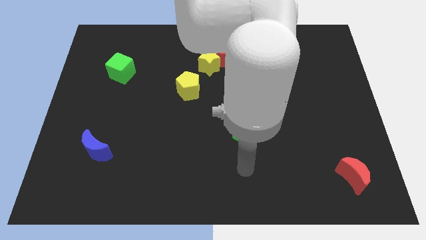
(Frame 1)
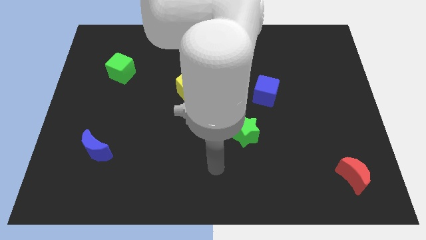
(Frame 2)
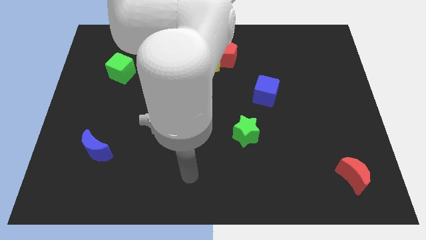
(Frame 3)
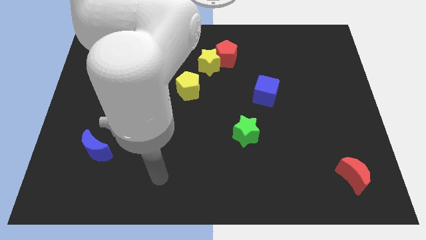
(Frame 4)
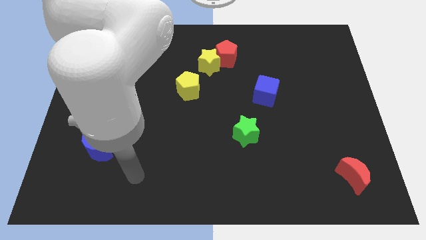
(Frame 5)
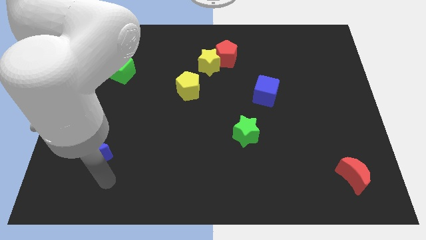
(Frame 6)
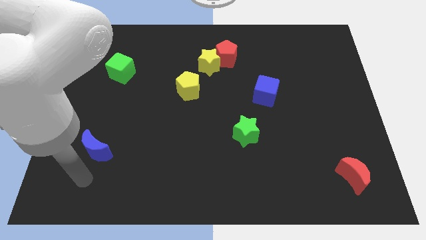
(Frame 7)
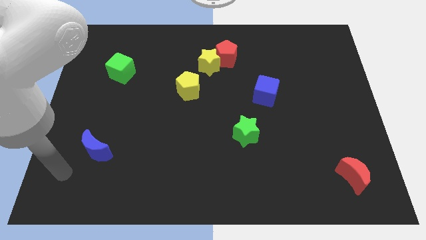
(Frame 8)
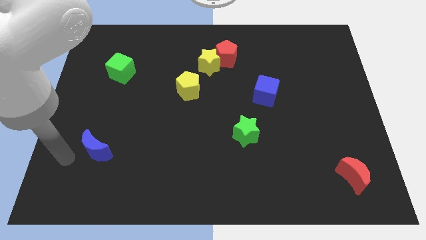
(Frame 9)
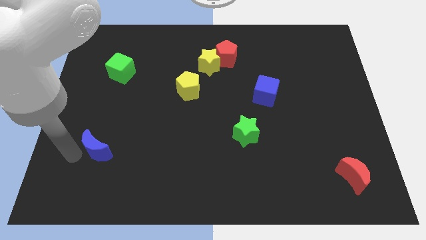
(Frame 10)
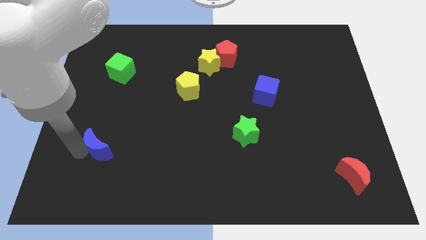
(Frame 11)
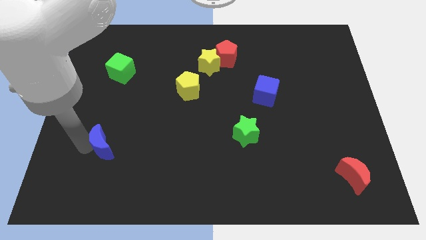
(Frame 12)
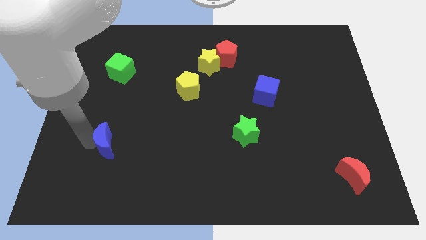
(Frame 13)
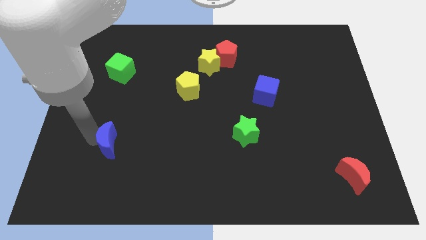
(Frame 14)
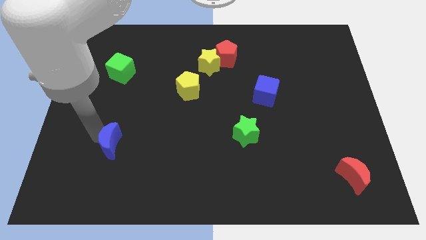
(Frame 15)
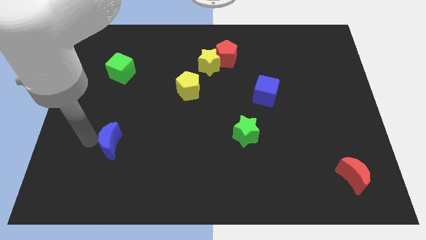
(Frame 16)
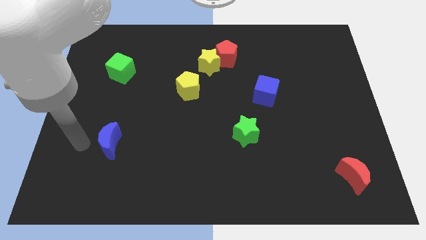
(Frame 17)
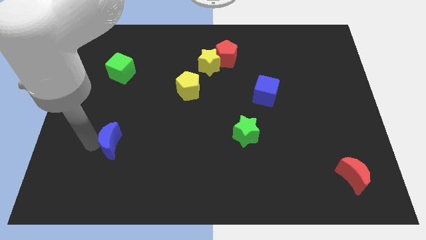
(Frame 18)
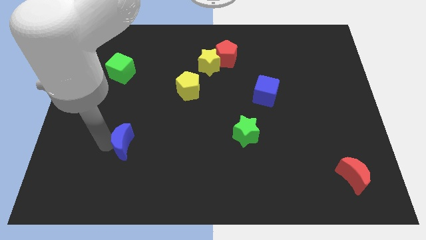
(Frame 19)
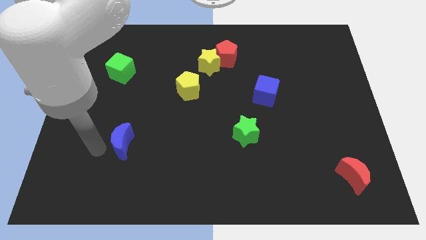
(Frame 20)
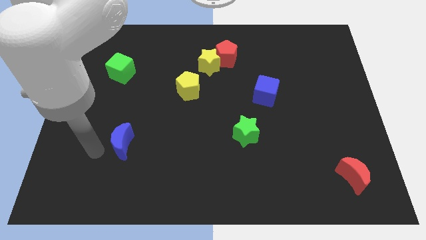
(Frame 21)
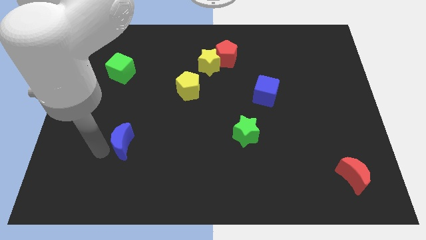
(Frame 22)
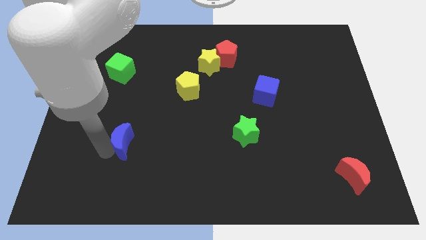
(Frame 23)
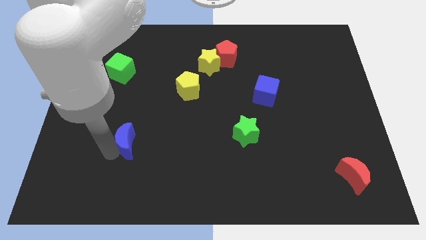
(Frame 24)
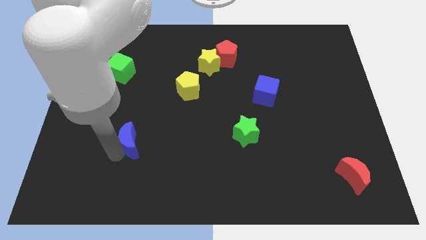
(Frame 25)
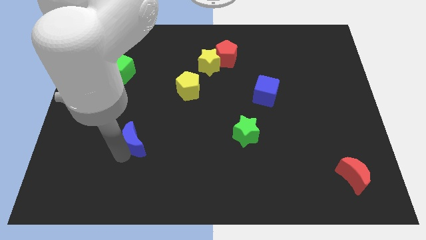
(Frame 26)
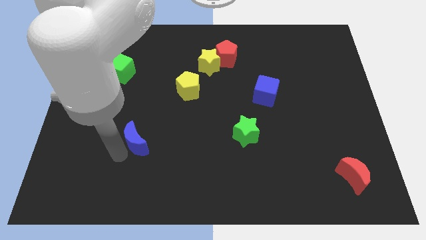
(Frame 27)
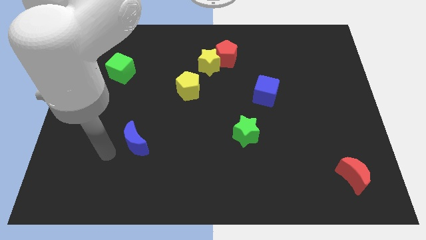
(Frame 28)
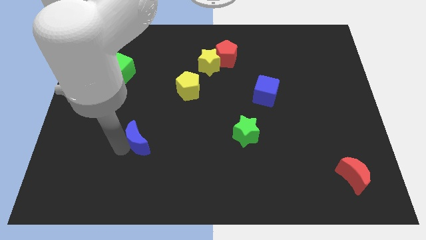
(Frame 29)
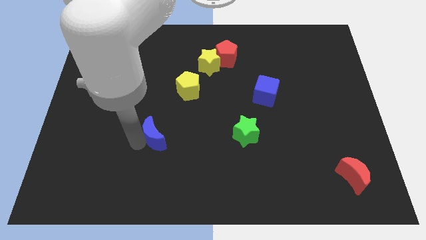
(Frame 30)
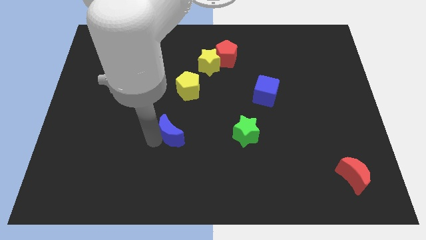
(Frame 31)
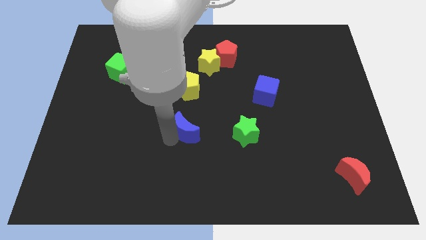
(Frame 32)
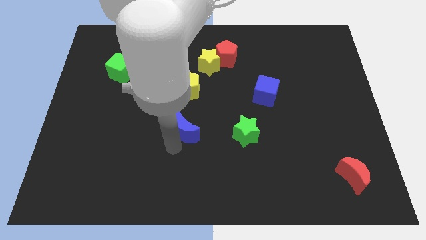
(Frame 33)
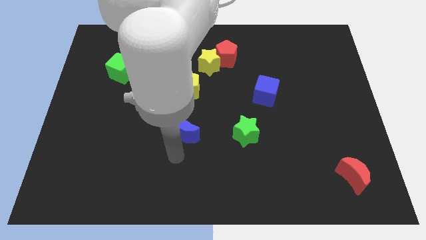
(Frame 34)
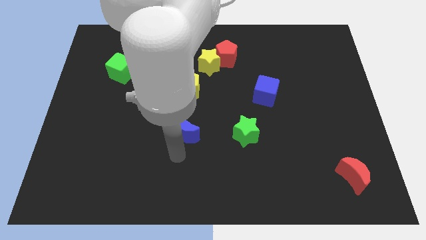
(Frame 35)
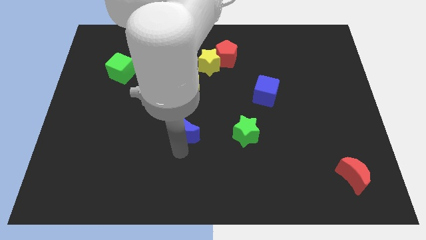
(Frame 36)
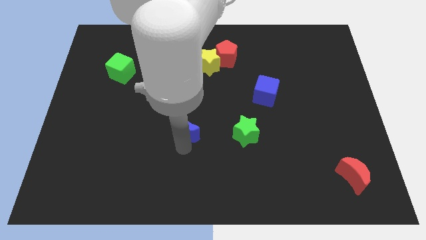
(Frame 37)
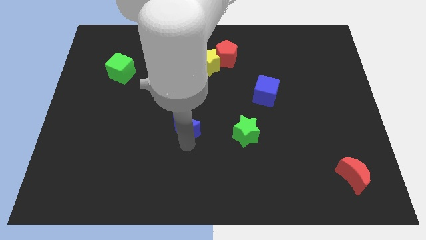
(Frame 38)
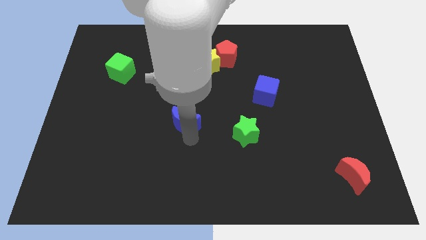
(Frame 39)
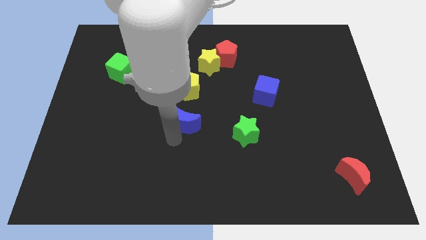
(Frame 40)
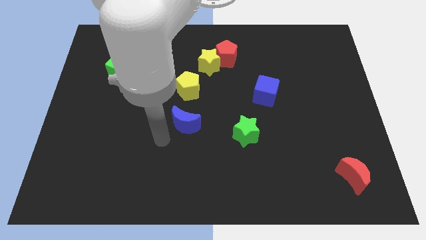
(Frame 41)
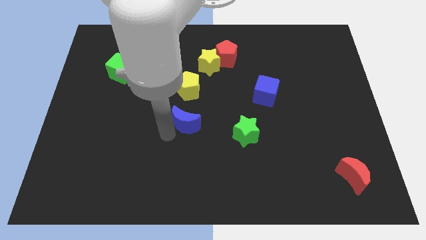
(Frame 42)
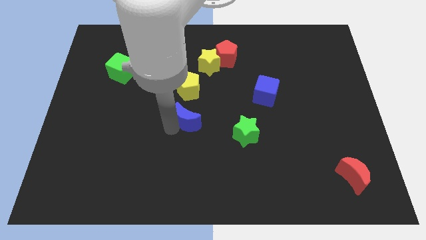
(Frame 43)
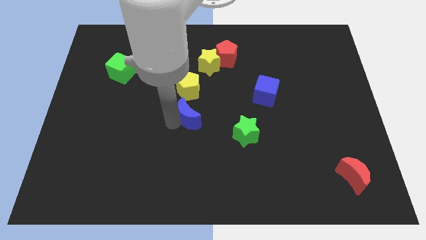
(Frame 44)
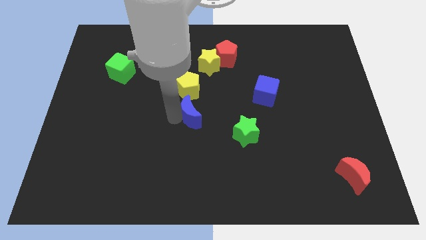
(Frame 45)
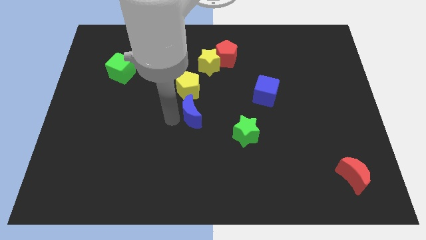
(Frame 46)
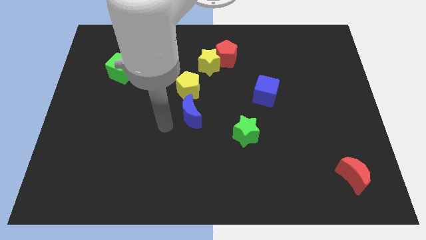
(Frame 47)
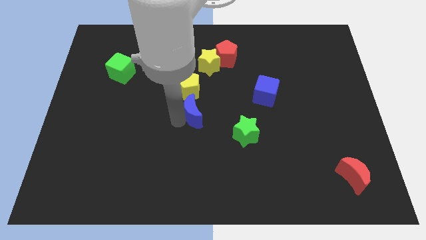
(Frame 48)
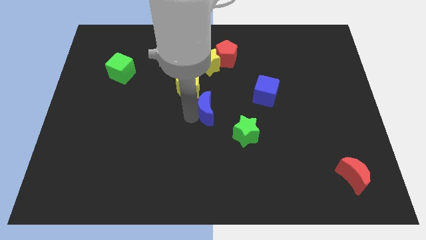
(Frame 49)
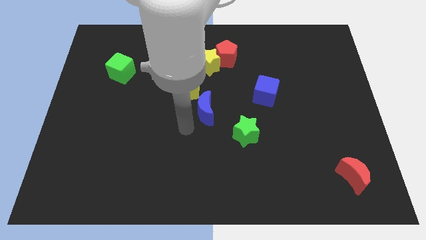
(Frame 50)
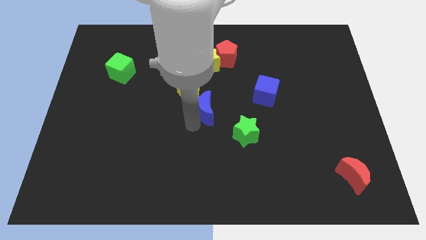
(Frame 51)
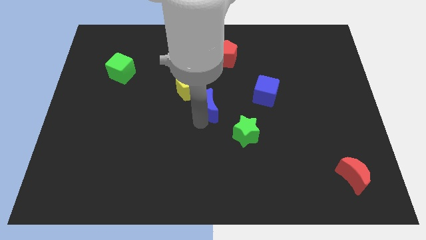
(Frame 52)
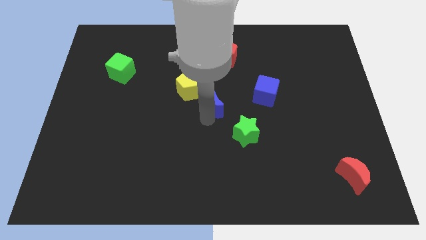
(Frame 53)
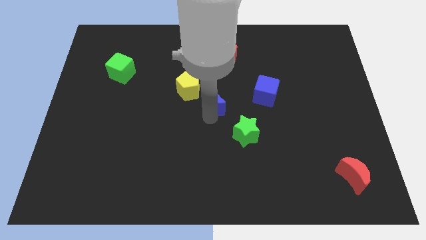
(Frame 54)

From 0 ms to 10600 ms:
move the blue moon just right of the yellow pentagon

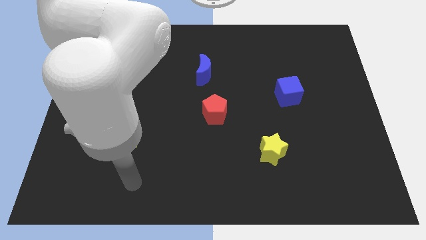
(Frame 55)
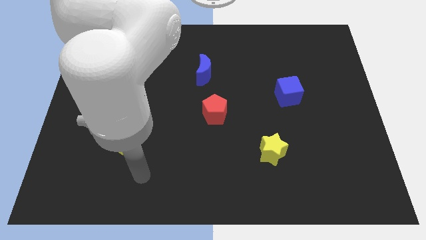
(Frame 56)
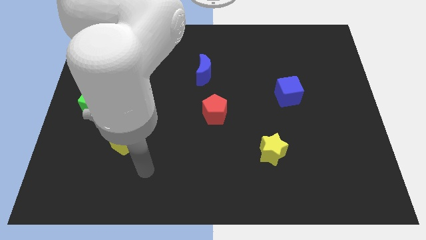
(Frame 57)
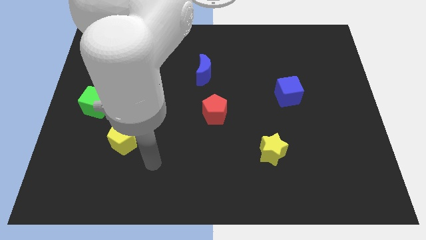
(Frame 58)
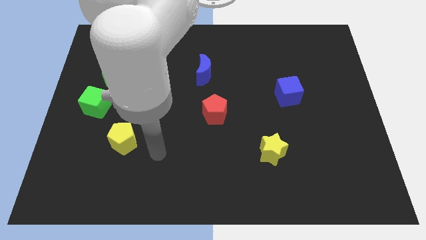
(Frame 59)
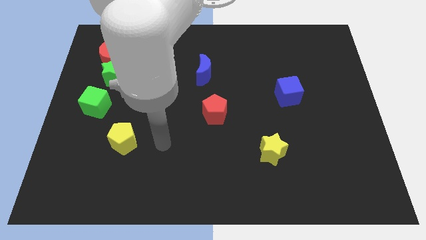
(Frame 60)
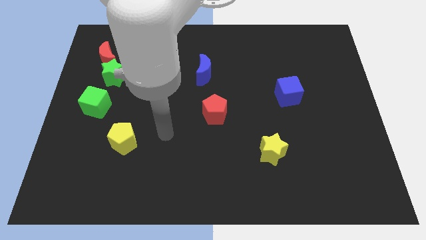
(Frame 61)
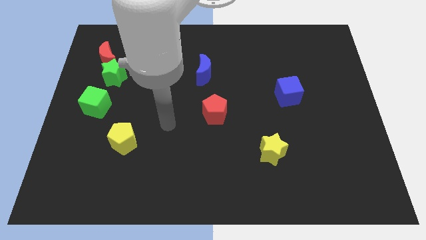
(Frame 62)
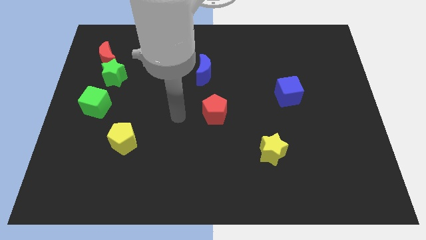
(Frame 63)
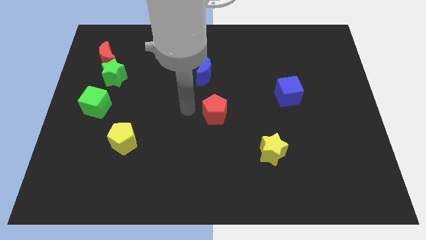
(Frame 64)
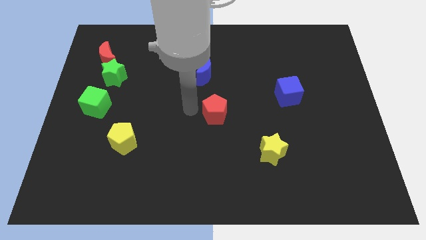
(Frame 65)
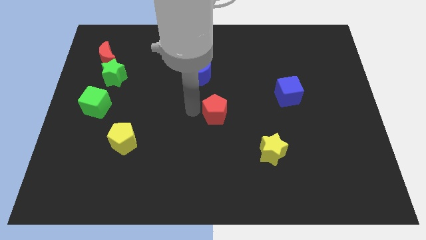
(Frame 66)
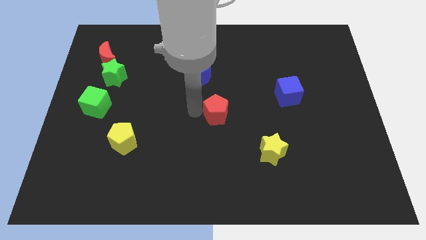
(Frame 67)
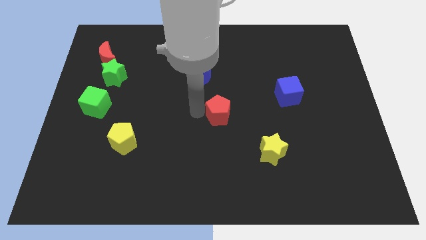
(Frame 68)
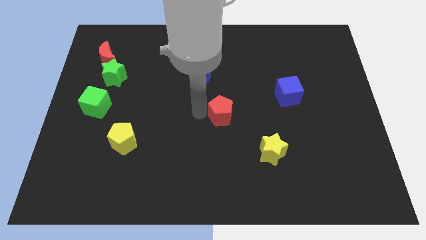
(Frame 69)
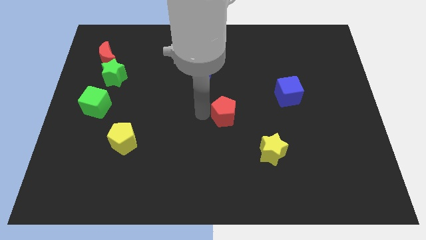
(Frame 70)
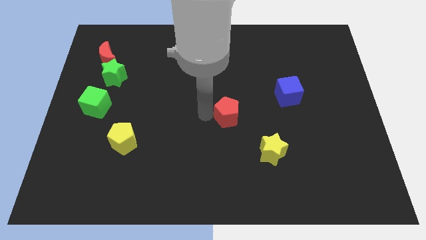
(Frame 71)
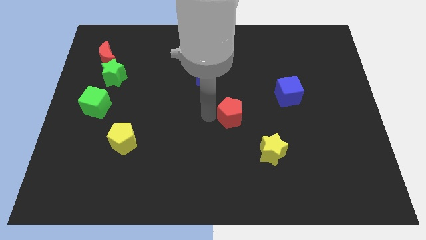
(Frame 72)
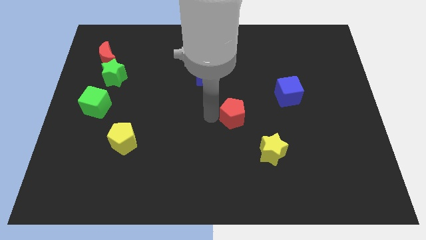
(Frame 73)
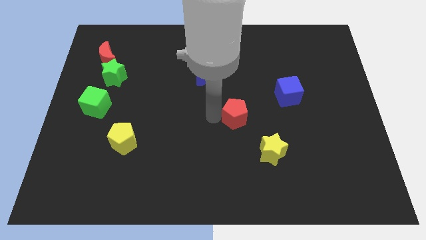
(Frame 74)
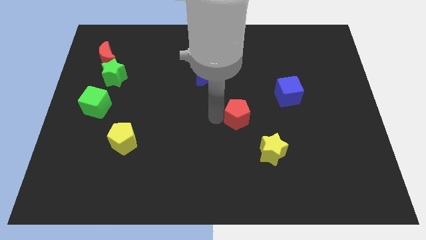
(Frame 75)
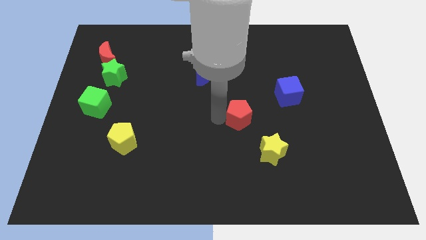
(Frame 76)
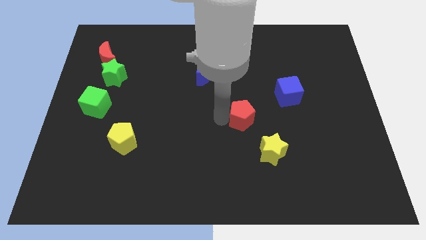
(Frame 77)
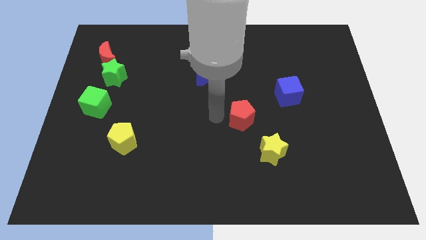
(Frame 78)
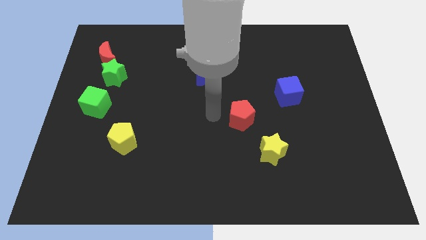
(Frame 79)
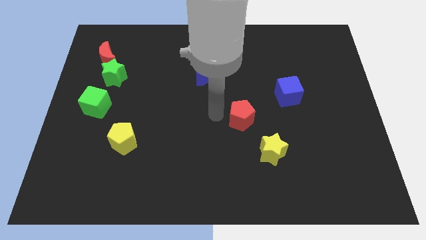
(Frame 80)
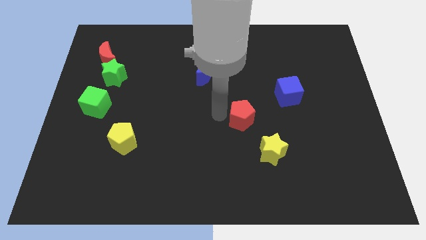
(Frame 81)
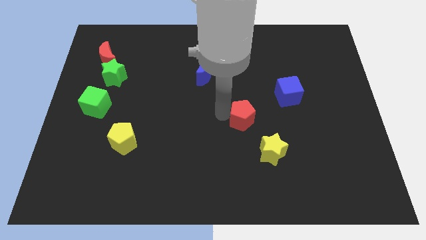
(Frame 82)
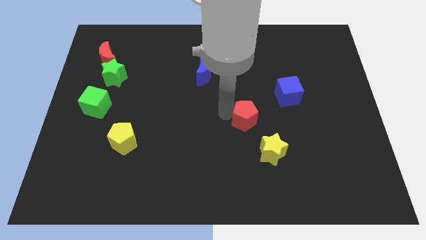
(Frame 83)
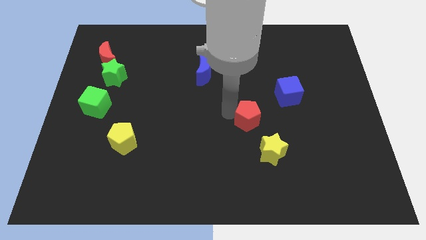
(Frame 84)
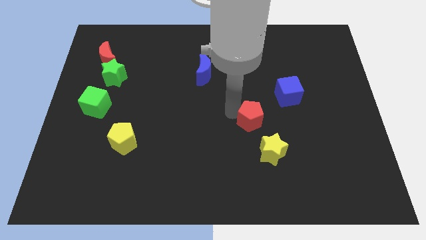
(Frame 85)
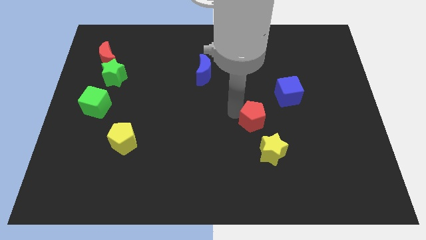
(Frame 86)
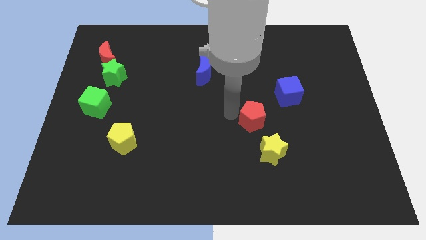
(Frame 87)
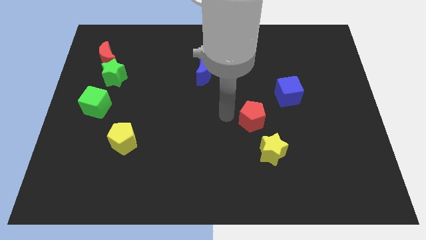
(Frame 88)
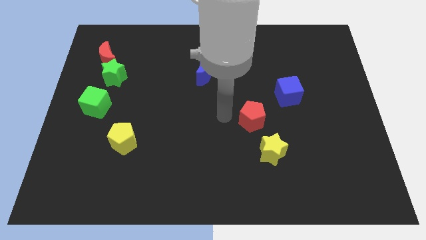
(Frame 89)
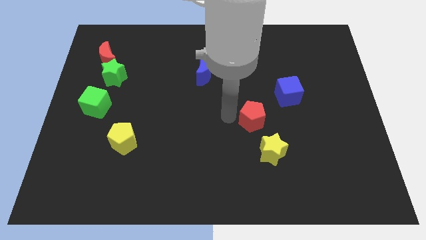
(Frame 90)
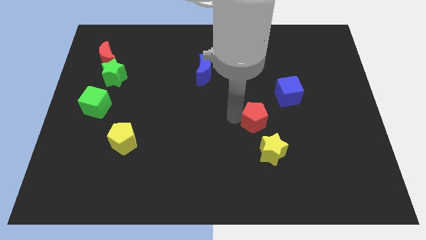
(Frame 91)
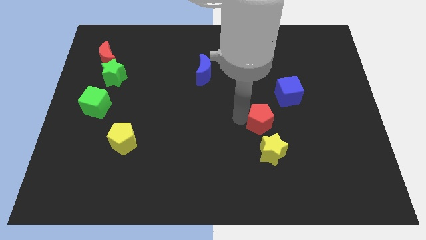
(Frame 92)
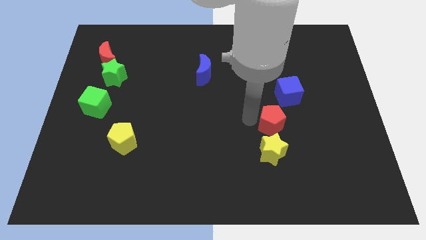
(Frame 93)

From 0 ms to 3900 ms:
put the red pentagon to the bottom side of the blue cube
